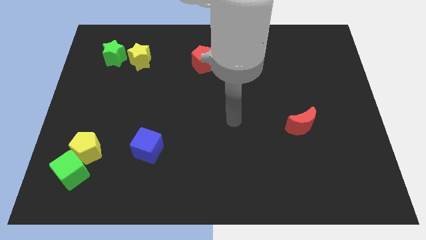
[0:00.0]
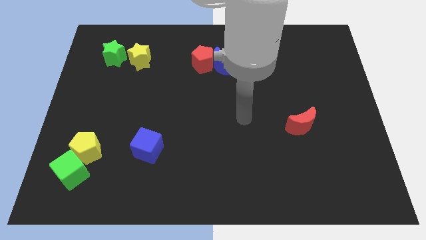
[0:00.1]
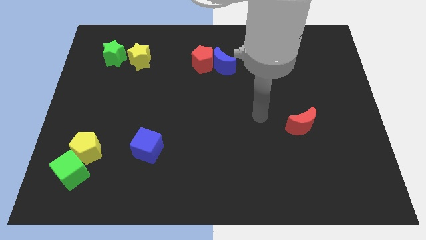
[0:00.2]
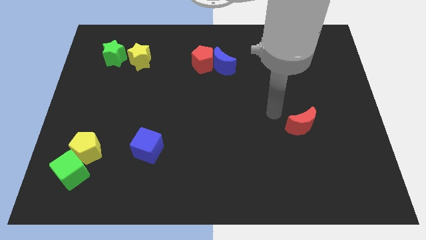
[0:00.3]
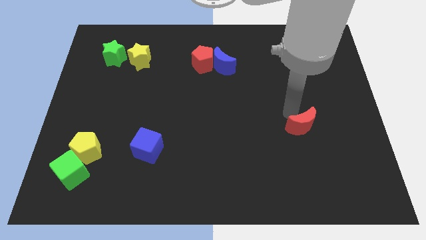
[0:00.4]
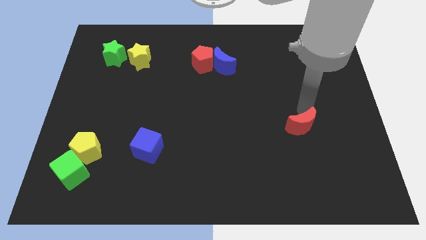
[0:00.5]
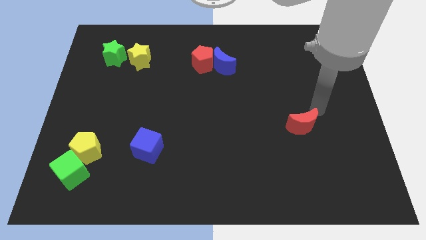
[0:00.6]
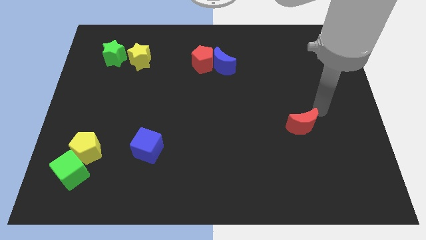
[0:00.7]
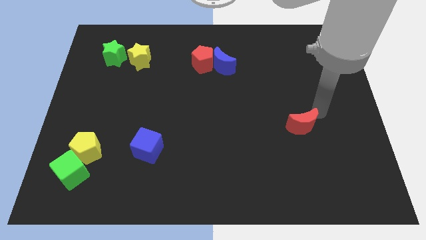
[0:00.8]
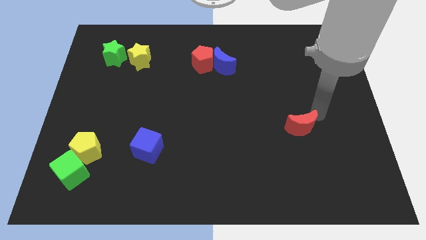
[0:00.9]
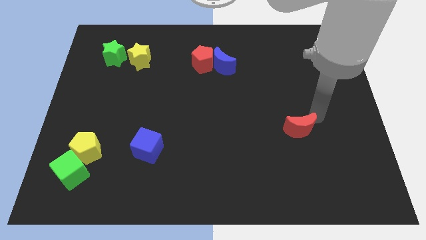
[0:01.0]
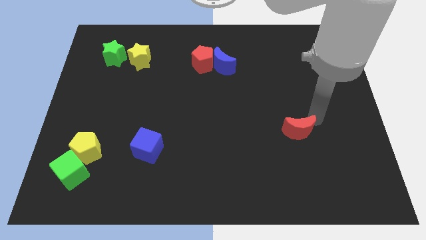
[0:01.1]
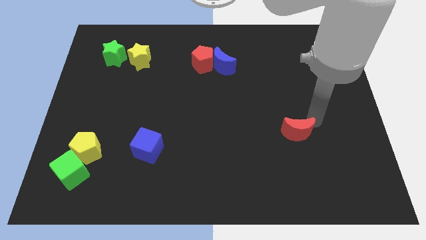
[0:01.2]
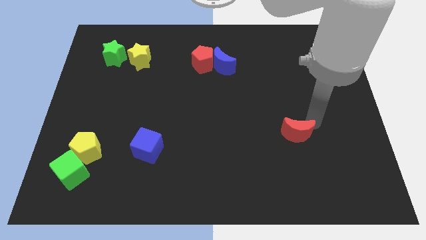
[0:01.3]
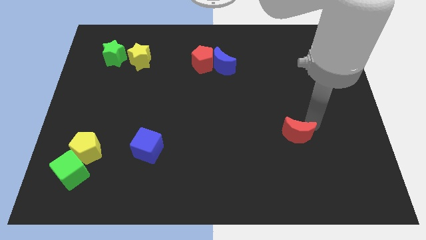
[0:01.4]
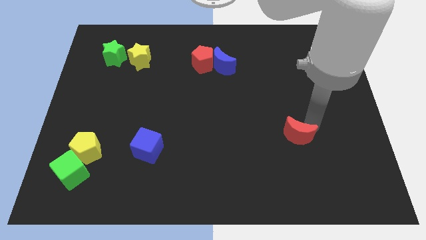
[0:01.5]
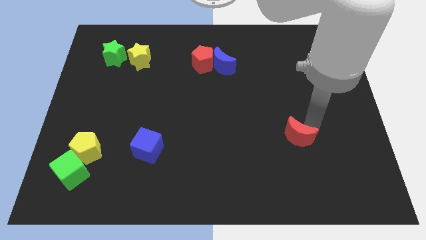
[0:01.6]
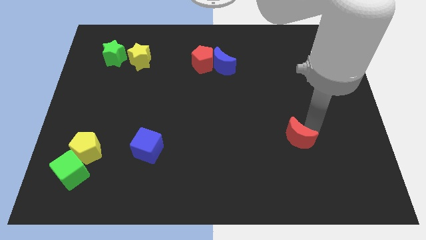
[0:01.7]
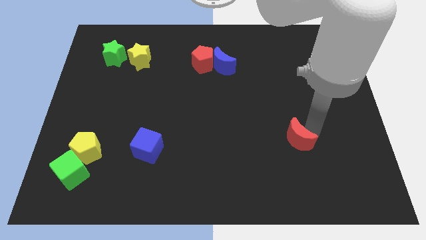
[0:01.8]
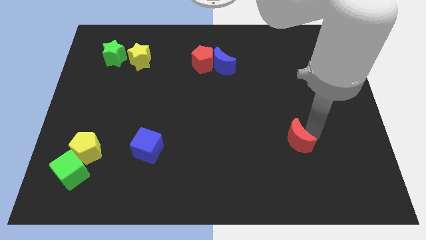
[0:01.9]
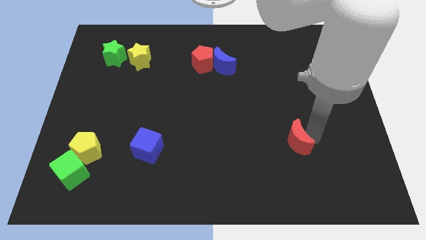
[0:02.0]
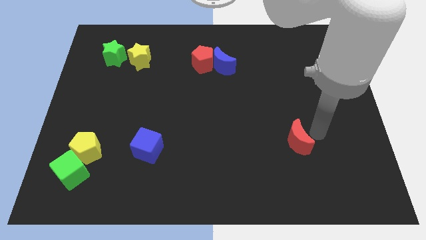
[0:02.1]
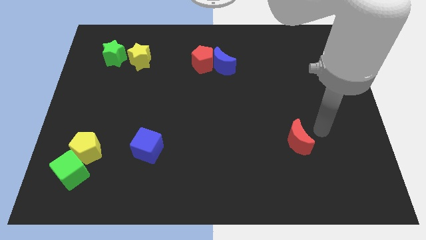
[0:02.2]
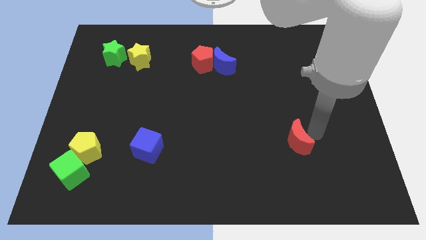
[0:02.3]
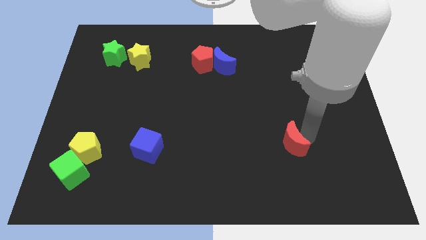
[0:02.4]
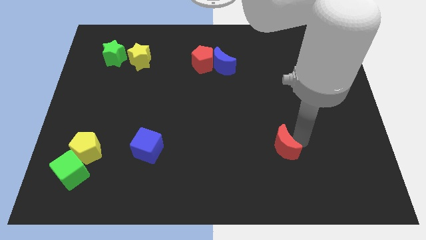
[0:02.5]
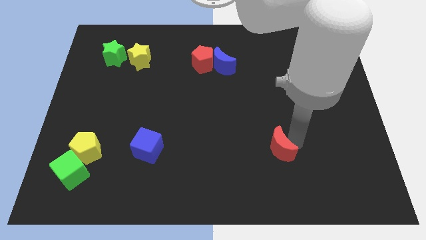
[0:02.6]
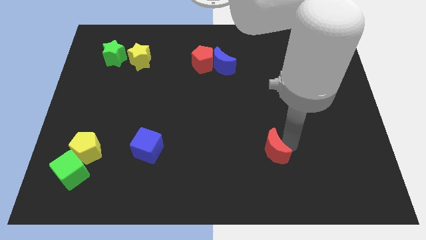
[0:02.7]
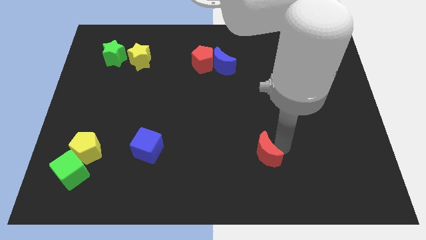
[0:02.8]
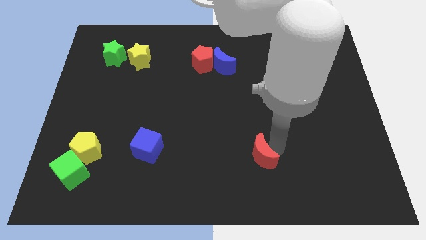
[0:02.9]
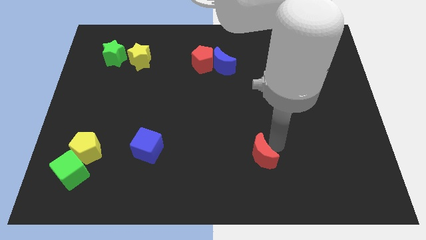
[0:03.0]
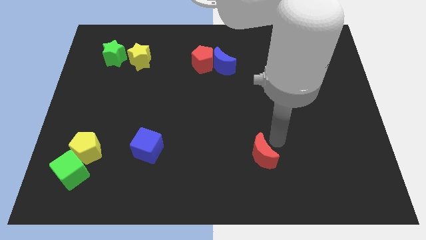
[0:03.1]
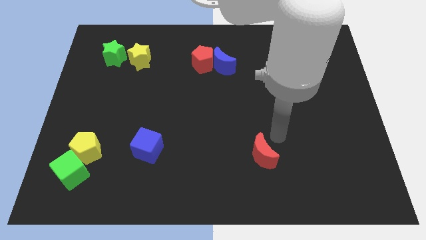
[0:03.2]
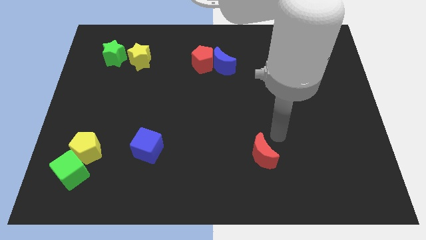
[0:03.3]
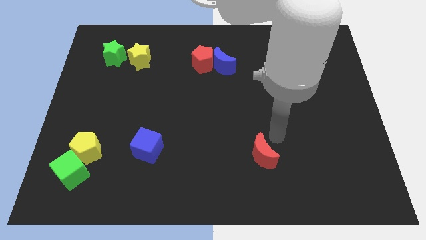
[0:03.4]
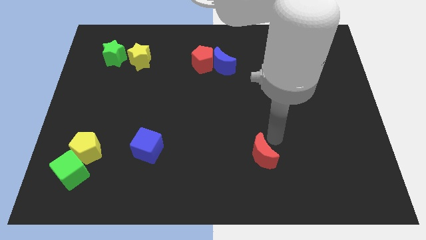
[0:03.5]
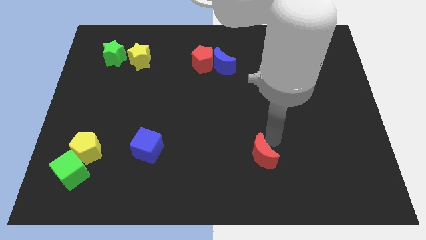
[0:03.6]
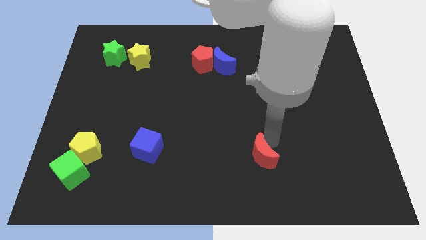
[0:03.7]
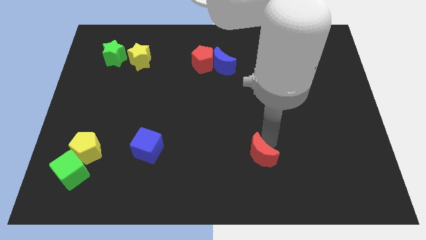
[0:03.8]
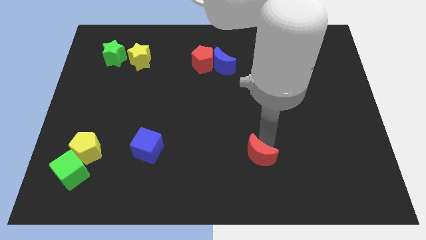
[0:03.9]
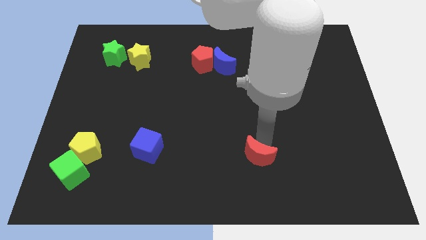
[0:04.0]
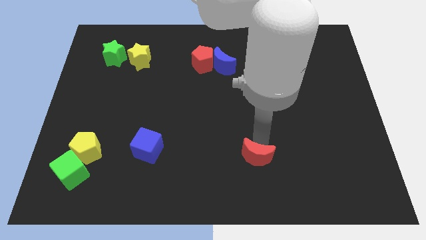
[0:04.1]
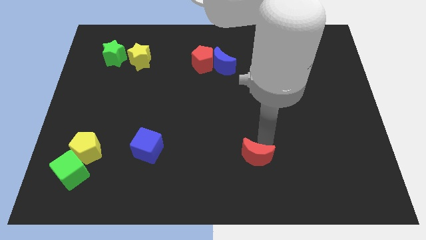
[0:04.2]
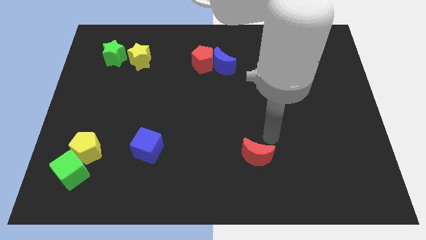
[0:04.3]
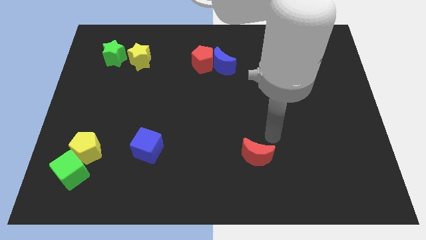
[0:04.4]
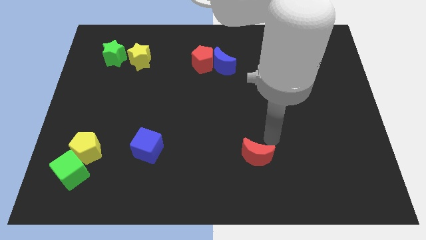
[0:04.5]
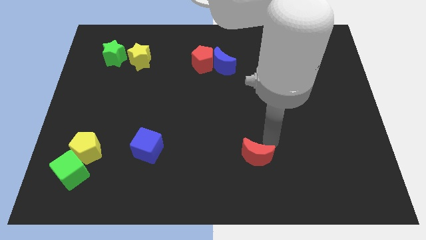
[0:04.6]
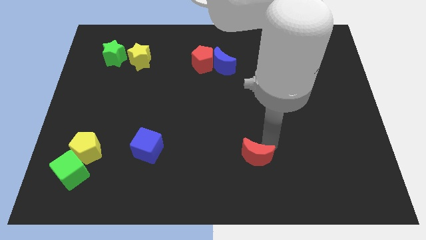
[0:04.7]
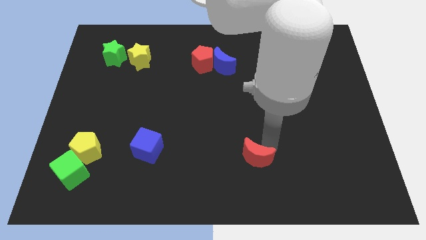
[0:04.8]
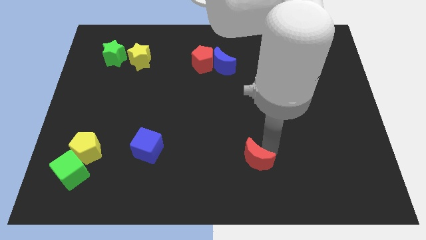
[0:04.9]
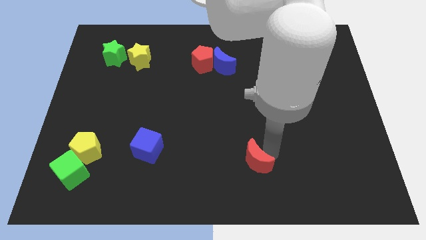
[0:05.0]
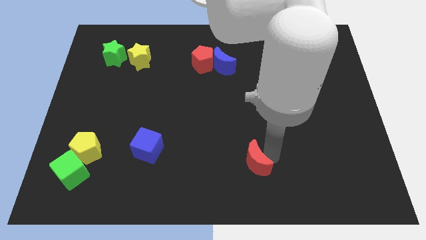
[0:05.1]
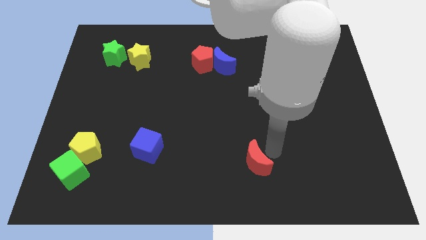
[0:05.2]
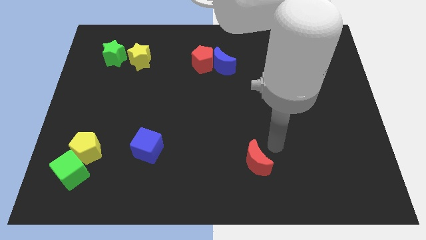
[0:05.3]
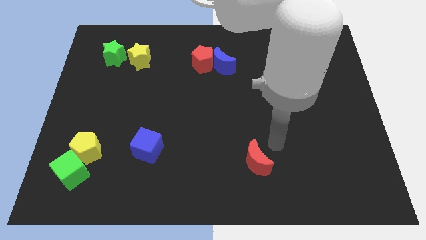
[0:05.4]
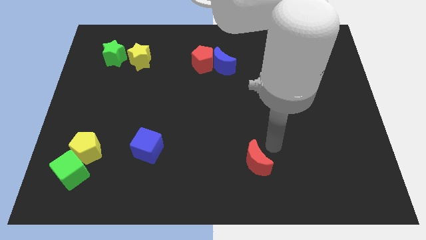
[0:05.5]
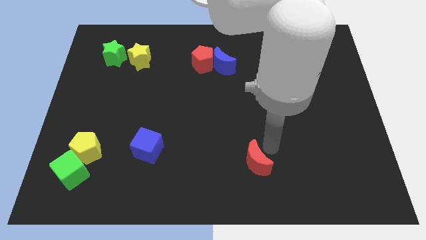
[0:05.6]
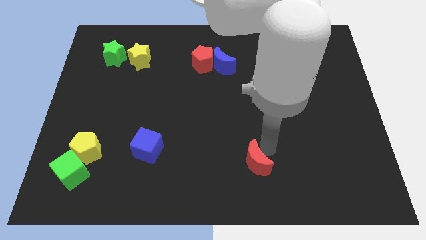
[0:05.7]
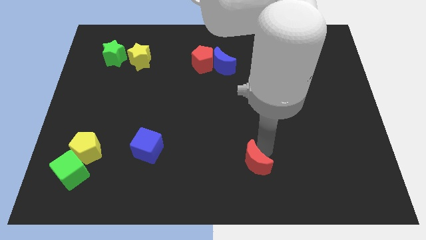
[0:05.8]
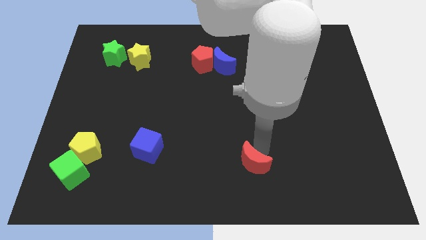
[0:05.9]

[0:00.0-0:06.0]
put the red moon to the bottom side
